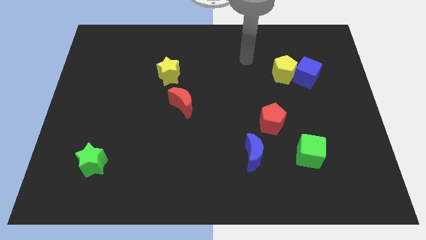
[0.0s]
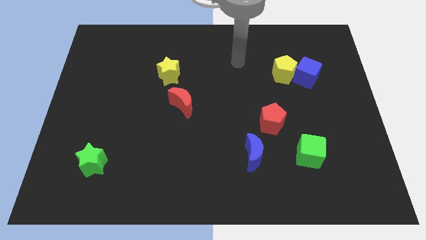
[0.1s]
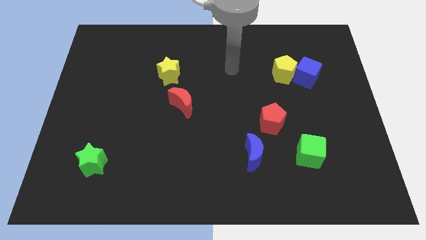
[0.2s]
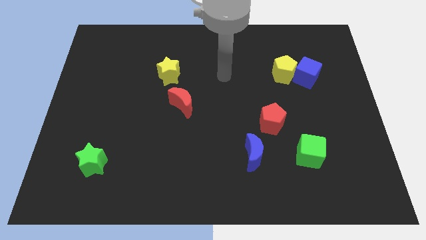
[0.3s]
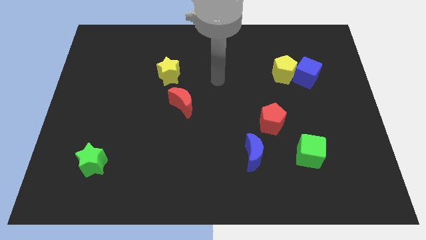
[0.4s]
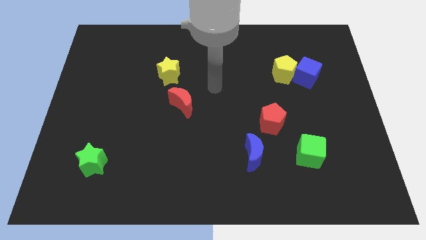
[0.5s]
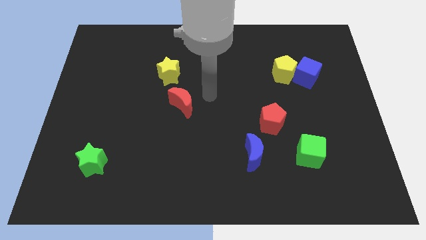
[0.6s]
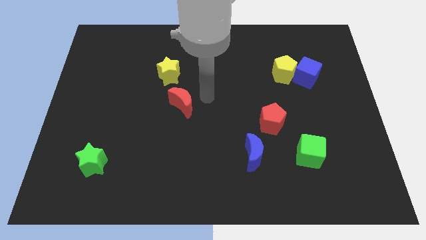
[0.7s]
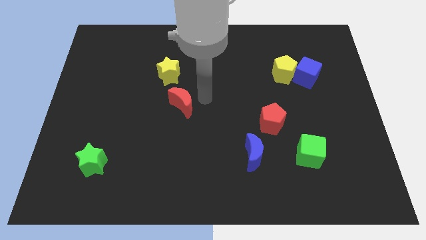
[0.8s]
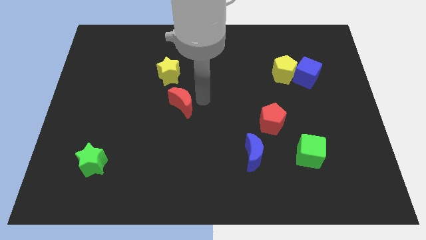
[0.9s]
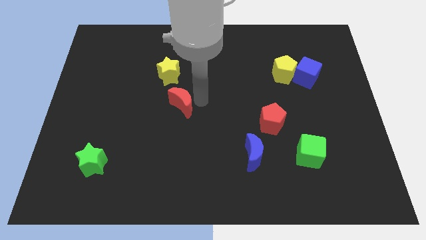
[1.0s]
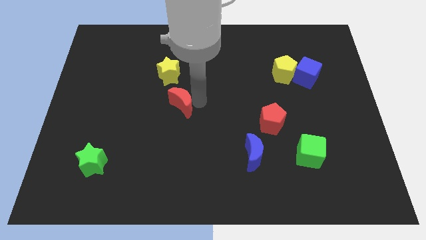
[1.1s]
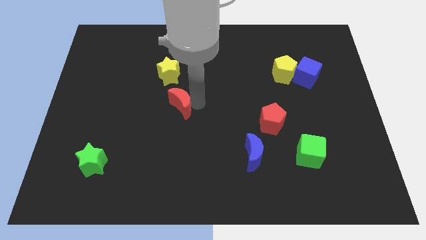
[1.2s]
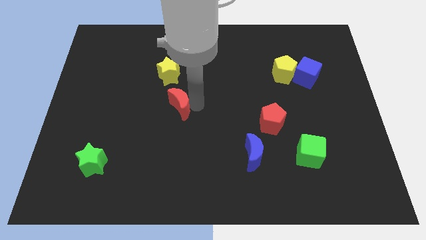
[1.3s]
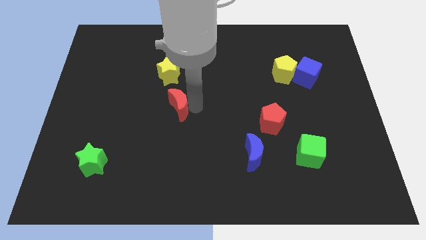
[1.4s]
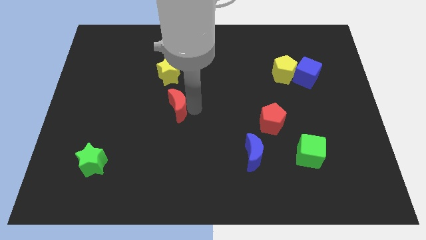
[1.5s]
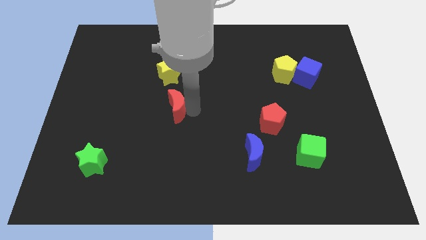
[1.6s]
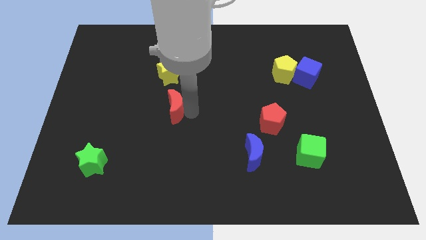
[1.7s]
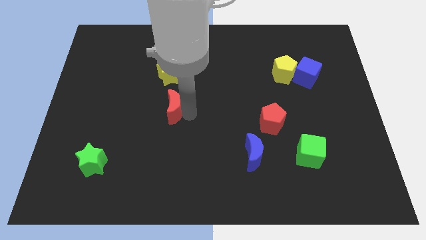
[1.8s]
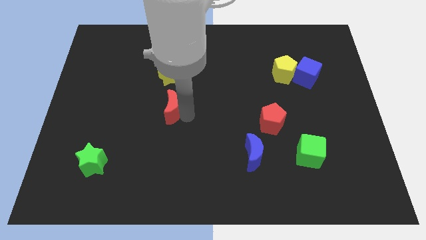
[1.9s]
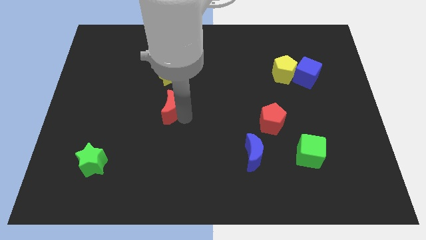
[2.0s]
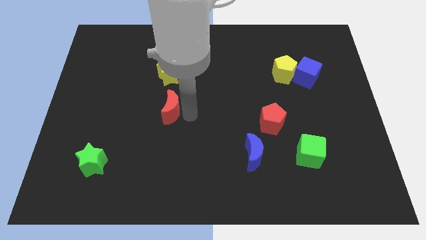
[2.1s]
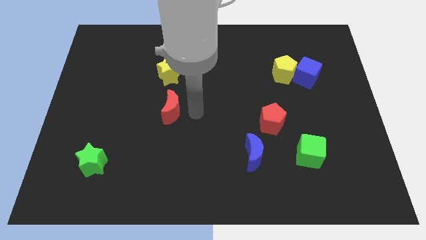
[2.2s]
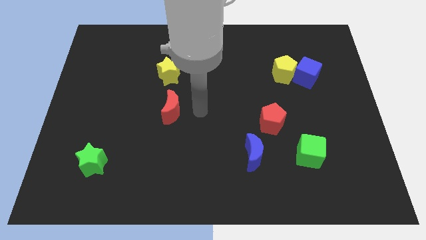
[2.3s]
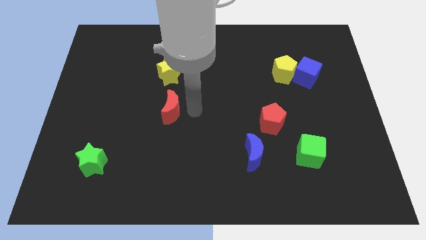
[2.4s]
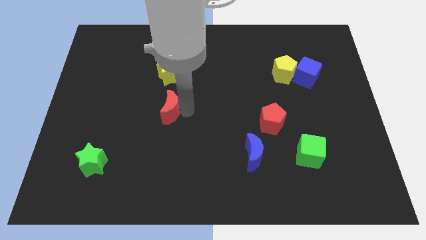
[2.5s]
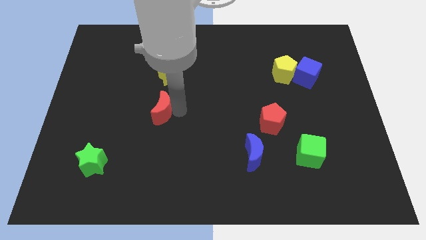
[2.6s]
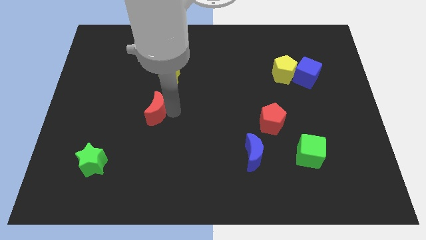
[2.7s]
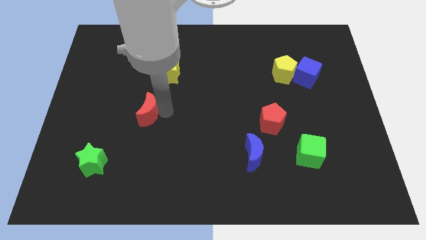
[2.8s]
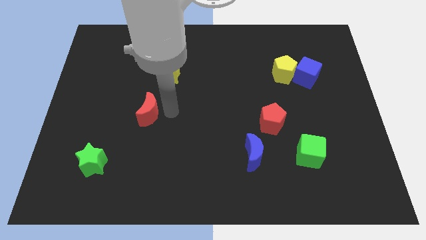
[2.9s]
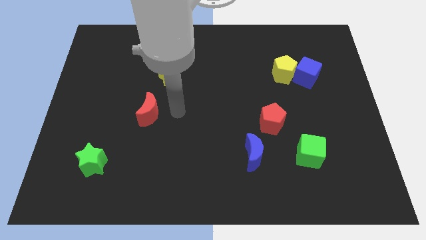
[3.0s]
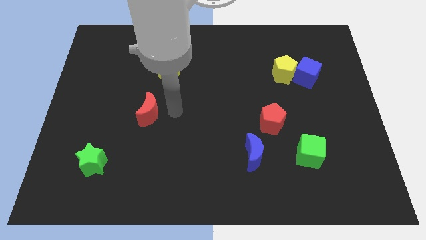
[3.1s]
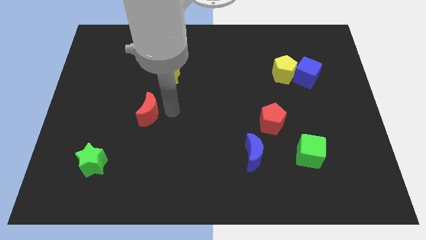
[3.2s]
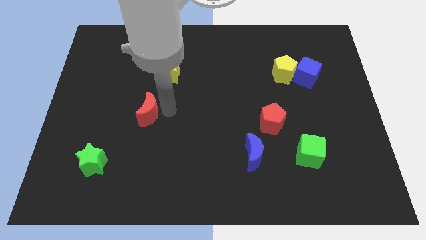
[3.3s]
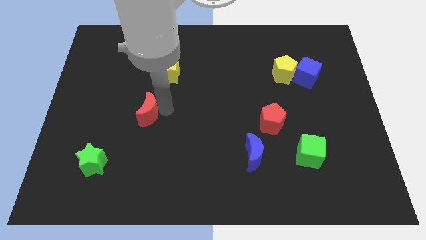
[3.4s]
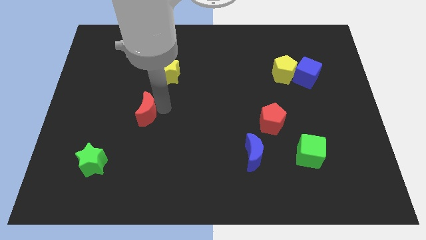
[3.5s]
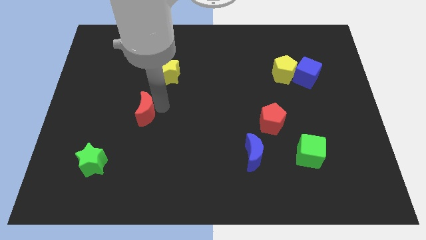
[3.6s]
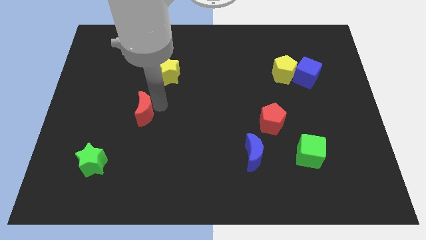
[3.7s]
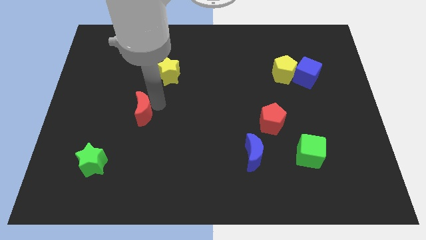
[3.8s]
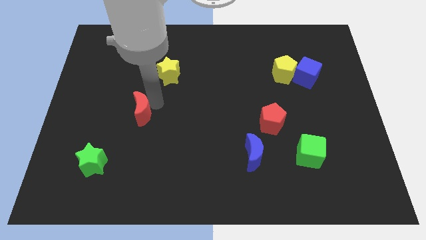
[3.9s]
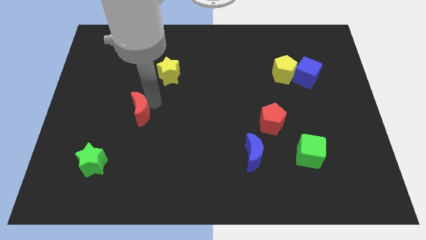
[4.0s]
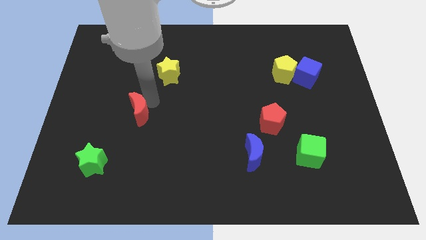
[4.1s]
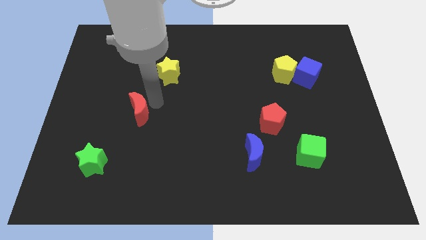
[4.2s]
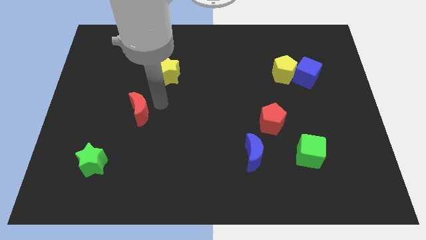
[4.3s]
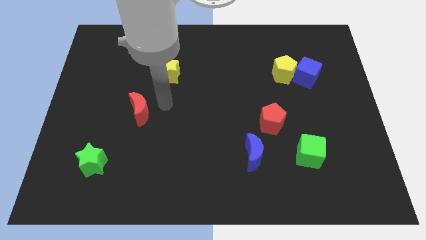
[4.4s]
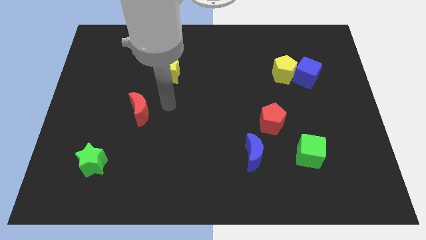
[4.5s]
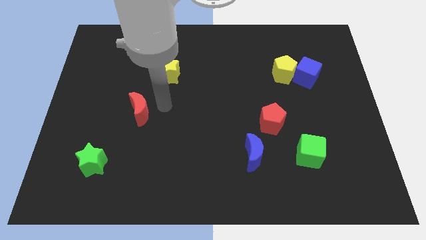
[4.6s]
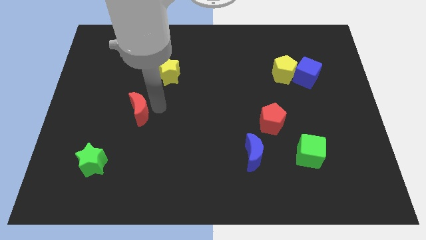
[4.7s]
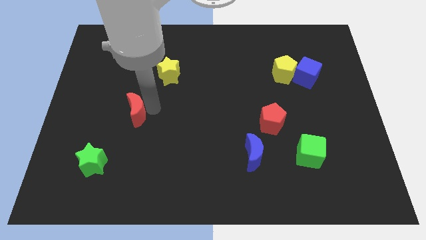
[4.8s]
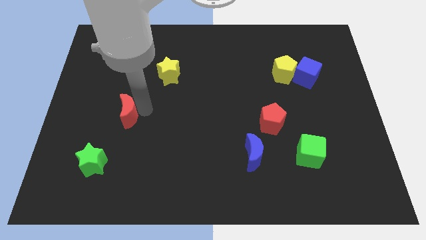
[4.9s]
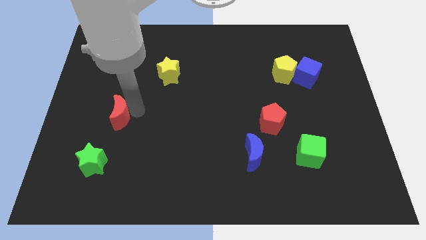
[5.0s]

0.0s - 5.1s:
push the red moon to the top of the green star

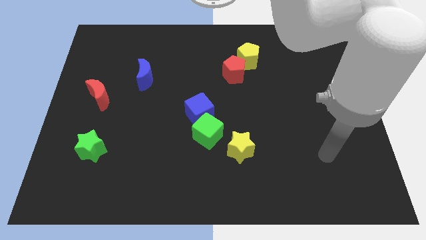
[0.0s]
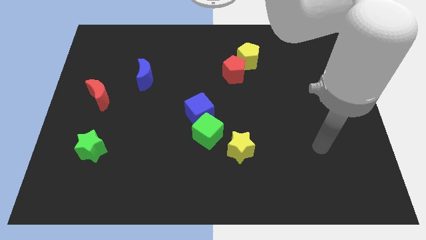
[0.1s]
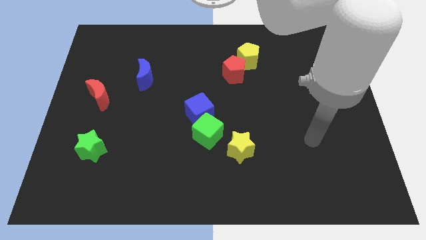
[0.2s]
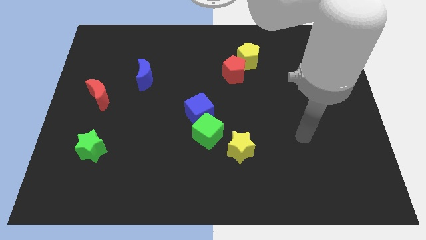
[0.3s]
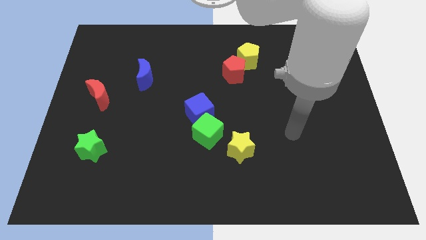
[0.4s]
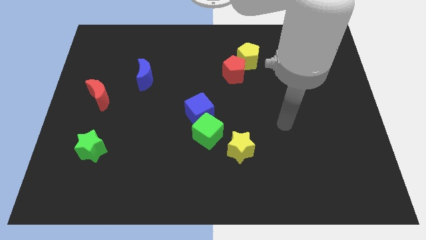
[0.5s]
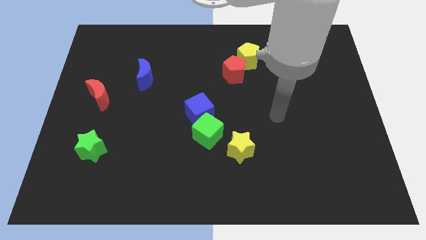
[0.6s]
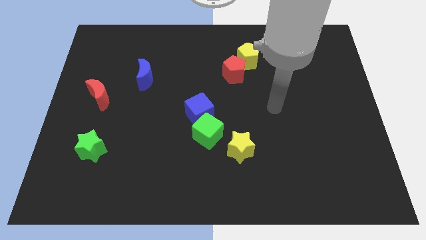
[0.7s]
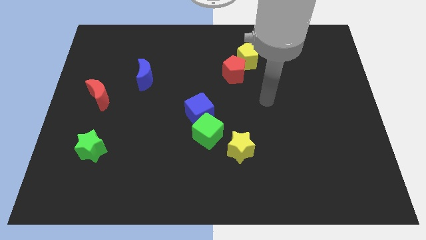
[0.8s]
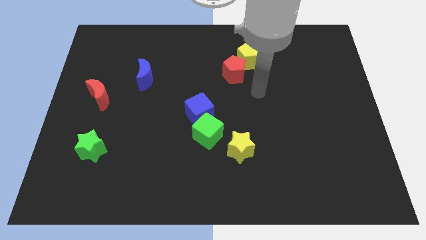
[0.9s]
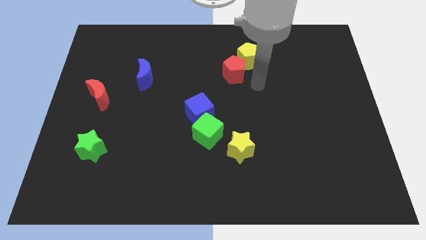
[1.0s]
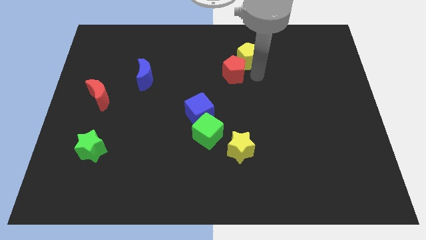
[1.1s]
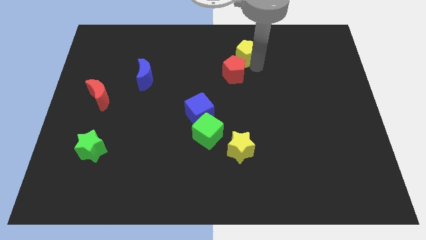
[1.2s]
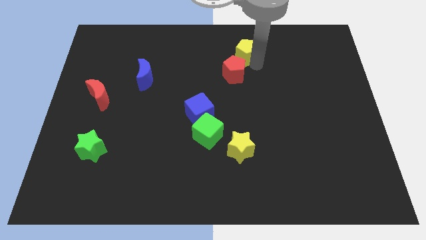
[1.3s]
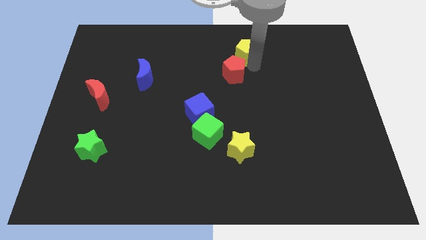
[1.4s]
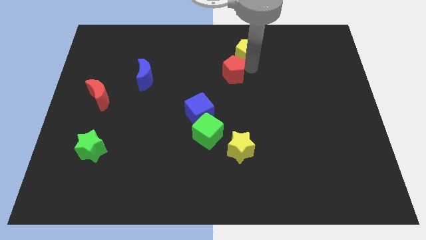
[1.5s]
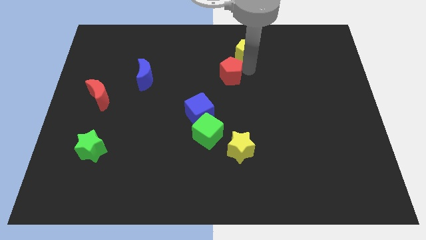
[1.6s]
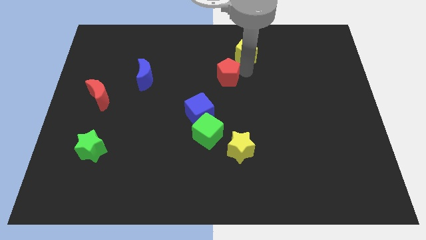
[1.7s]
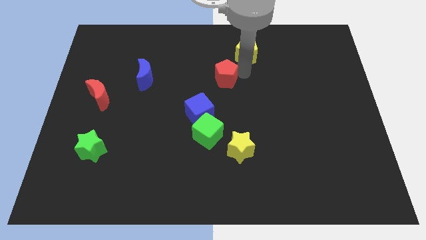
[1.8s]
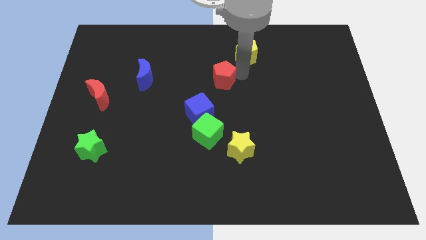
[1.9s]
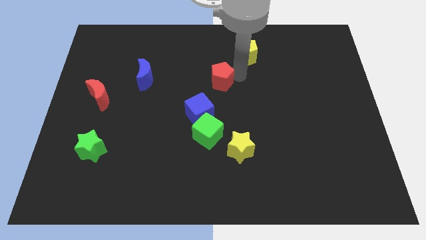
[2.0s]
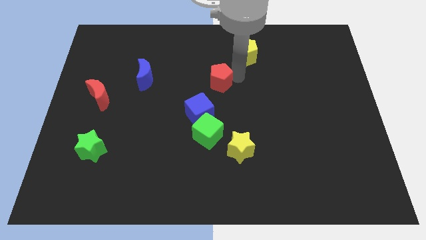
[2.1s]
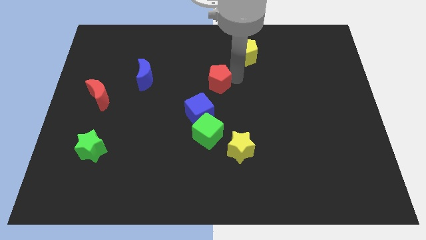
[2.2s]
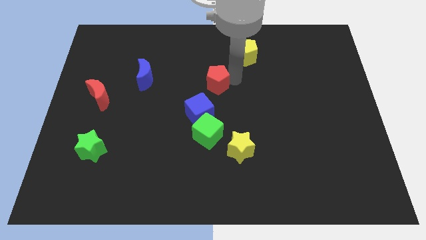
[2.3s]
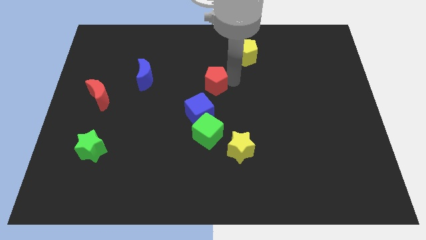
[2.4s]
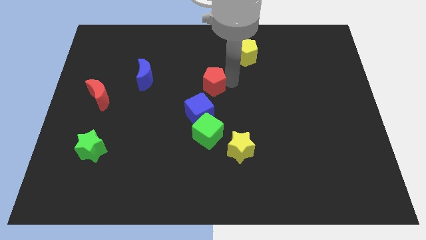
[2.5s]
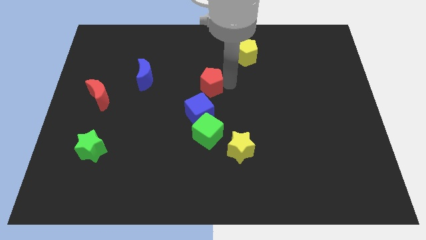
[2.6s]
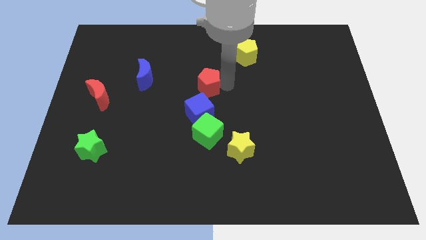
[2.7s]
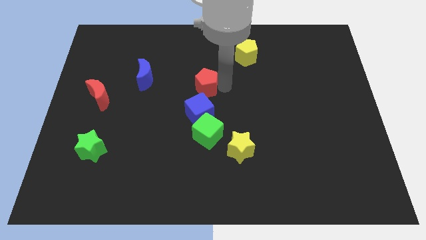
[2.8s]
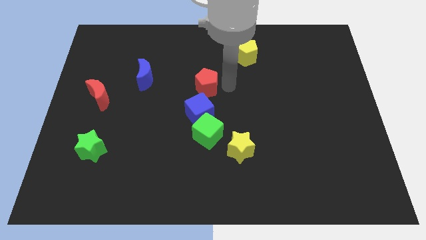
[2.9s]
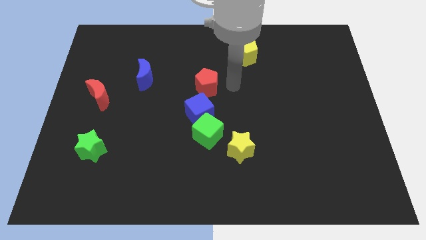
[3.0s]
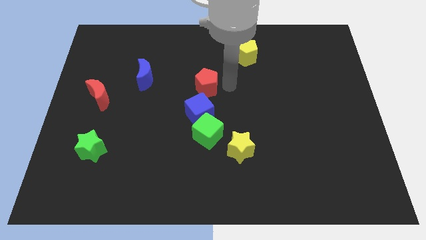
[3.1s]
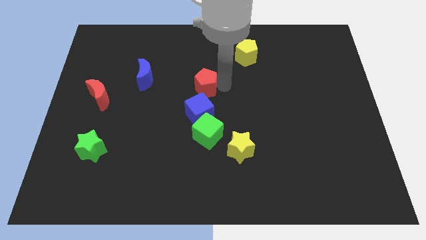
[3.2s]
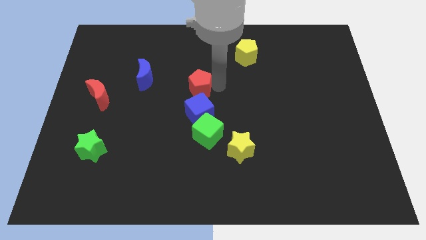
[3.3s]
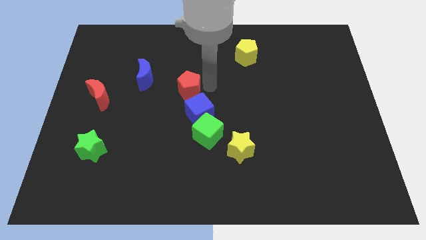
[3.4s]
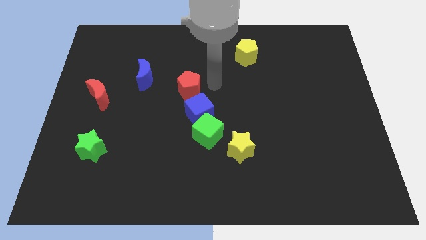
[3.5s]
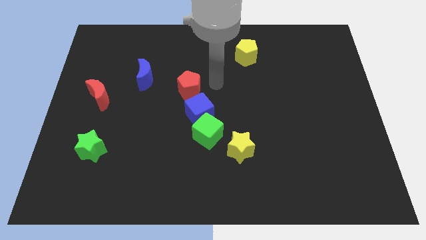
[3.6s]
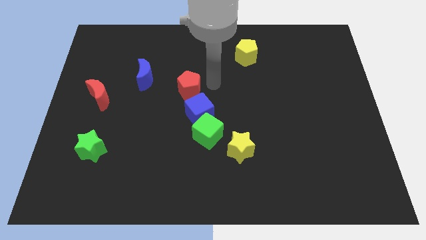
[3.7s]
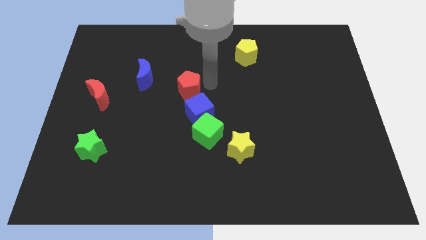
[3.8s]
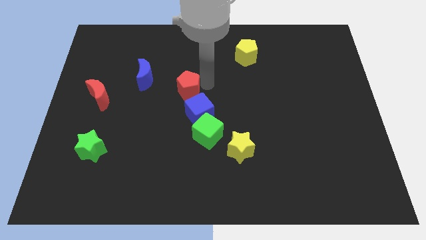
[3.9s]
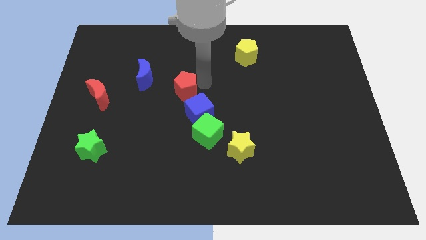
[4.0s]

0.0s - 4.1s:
push the red pentagon to the bottom right of the blue moon
